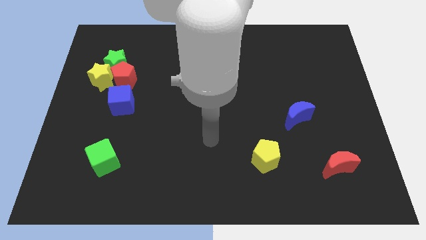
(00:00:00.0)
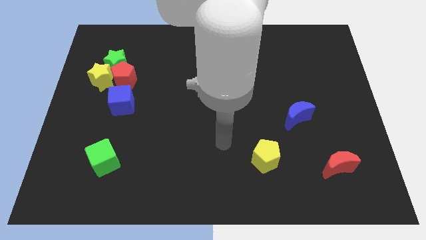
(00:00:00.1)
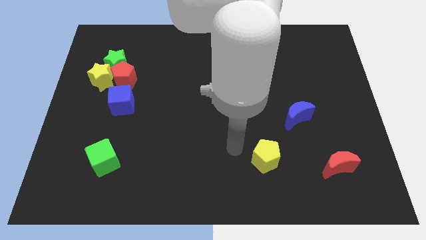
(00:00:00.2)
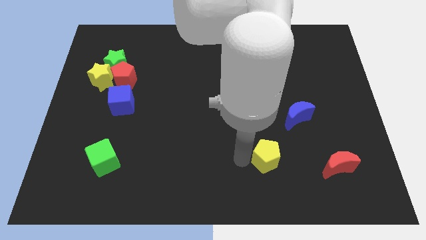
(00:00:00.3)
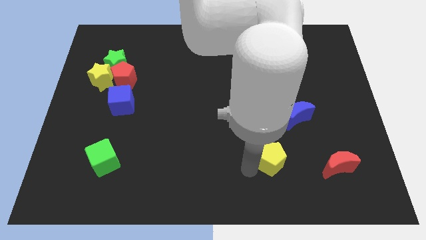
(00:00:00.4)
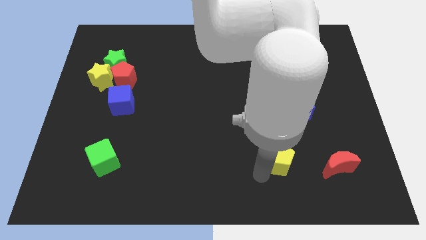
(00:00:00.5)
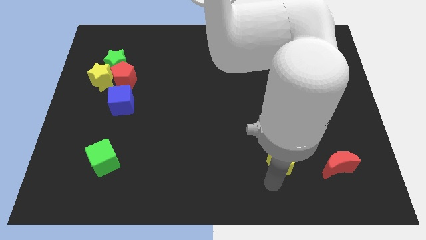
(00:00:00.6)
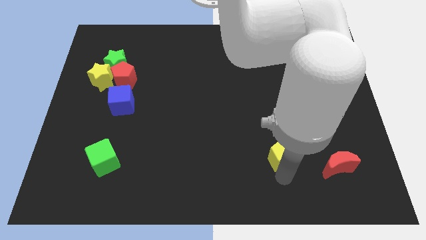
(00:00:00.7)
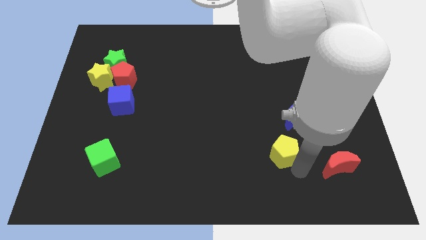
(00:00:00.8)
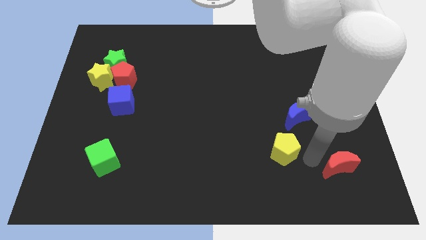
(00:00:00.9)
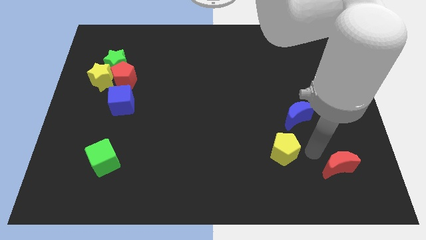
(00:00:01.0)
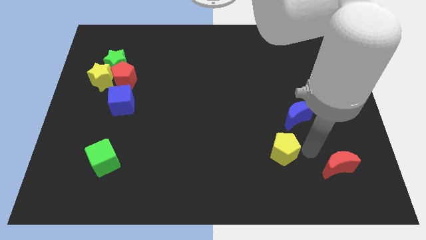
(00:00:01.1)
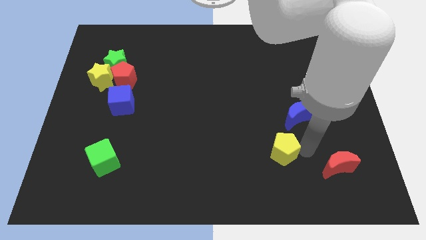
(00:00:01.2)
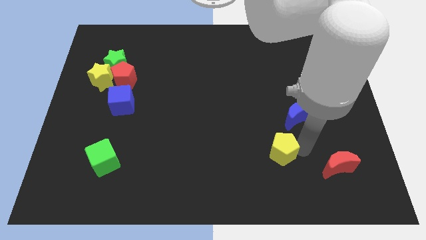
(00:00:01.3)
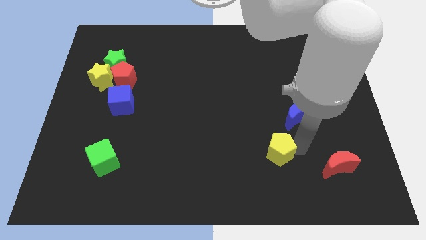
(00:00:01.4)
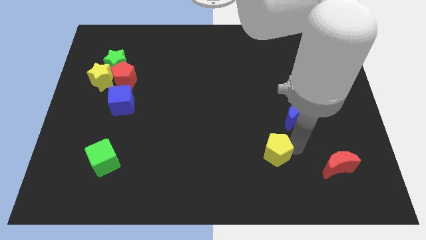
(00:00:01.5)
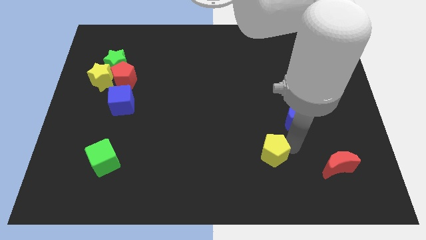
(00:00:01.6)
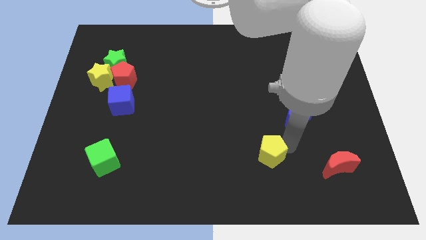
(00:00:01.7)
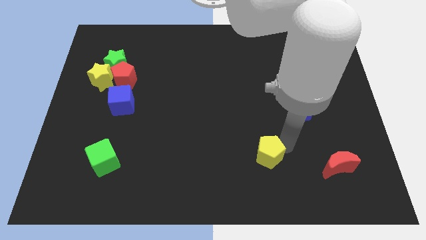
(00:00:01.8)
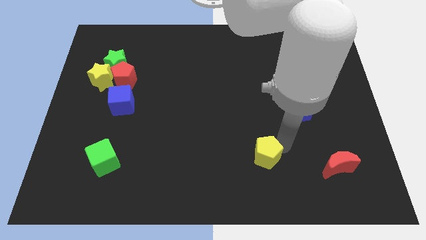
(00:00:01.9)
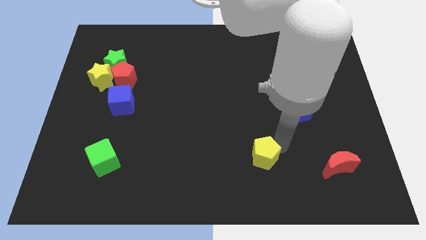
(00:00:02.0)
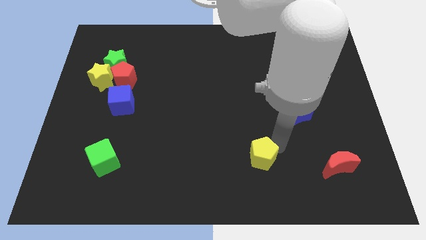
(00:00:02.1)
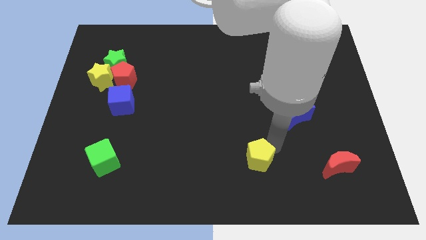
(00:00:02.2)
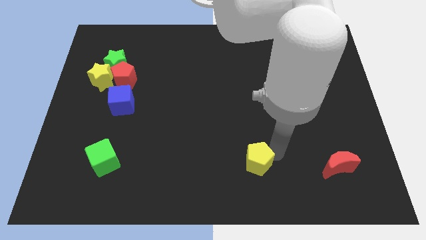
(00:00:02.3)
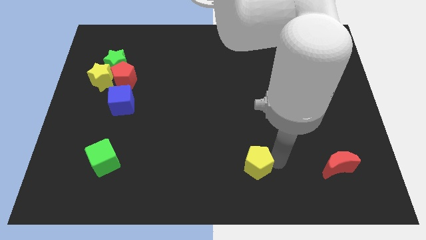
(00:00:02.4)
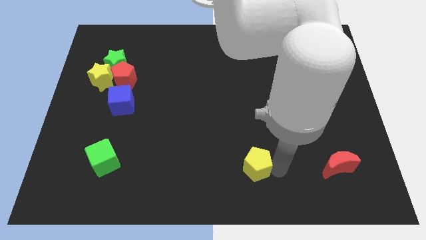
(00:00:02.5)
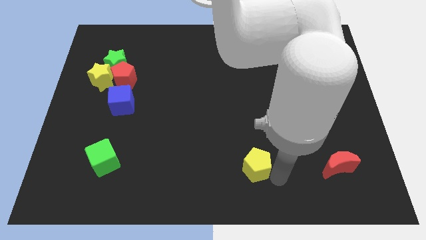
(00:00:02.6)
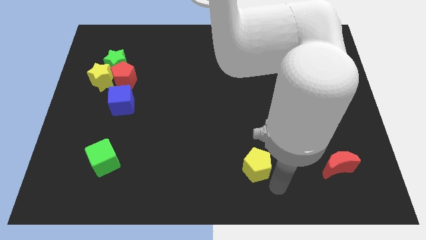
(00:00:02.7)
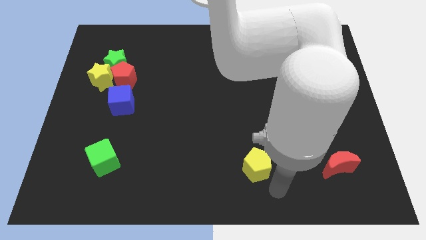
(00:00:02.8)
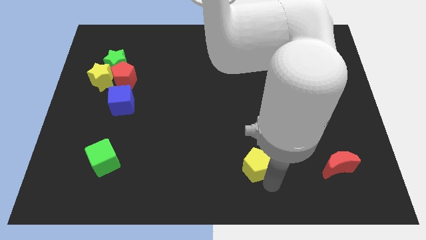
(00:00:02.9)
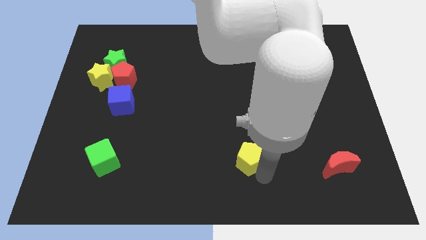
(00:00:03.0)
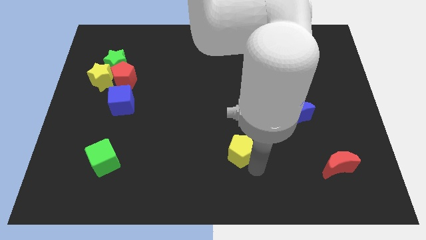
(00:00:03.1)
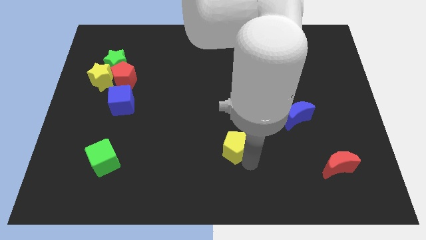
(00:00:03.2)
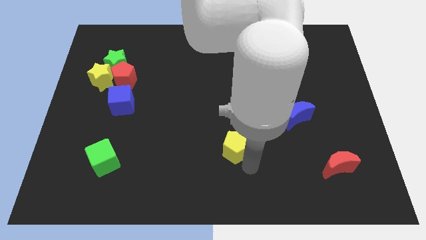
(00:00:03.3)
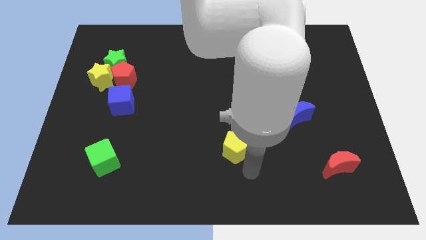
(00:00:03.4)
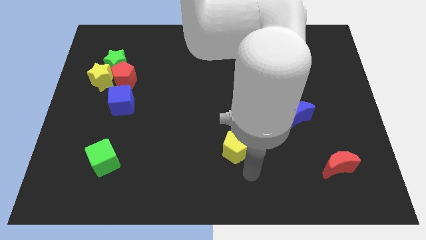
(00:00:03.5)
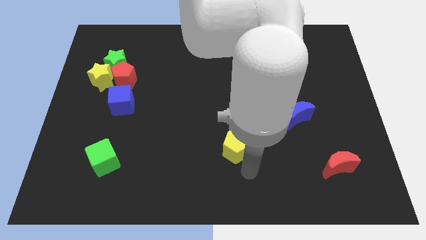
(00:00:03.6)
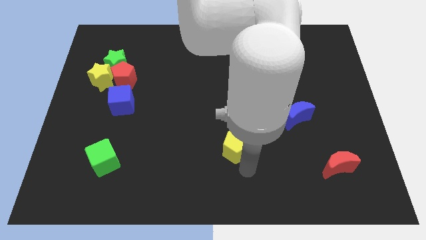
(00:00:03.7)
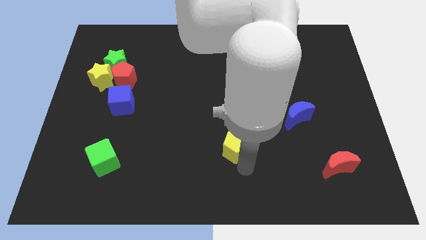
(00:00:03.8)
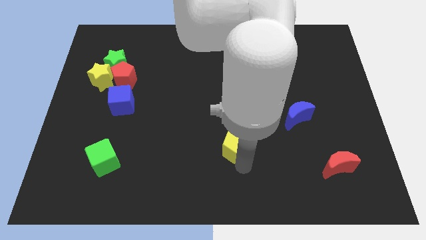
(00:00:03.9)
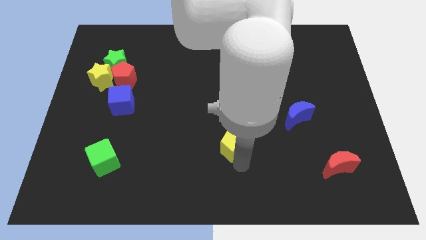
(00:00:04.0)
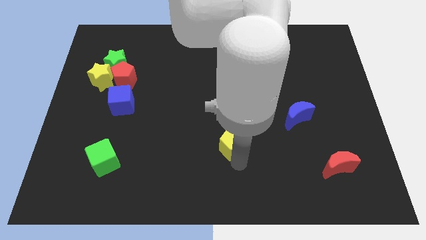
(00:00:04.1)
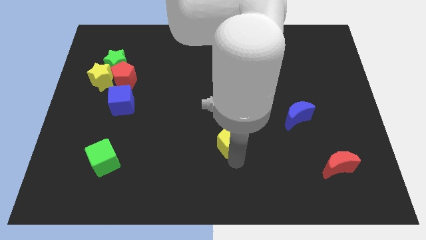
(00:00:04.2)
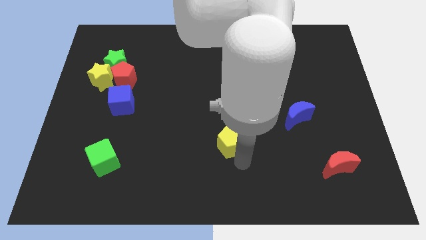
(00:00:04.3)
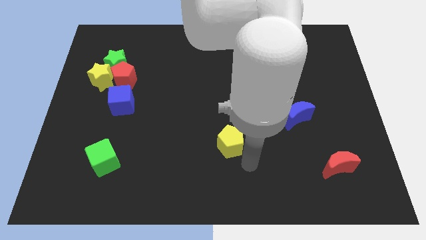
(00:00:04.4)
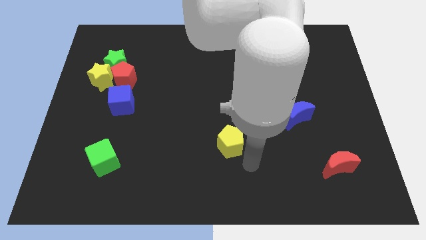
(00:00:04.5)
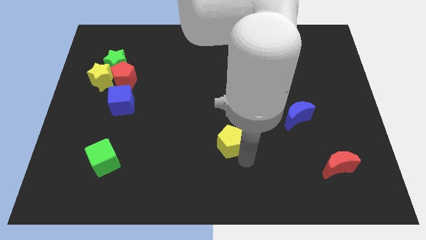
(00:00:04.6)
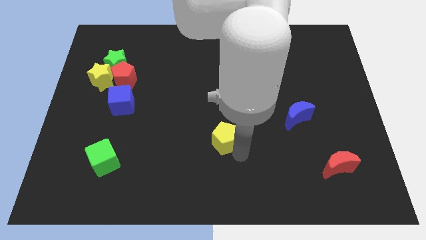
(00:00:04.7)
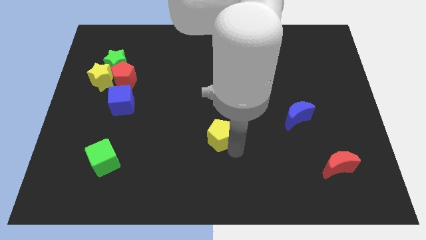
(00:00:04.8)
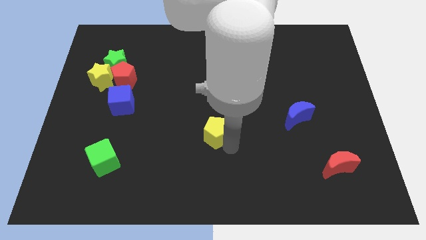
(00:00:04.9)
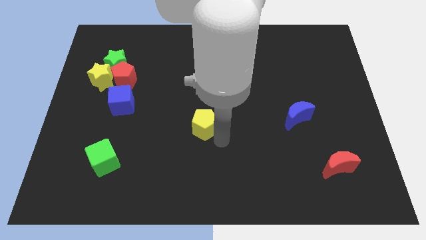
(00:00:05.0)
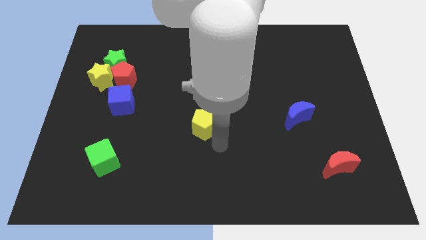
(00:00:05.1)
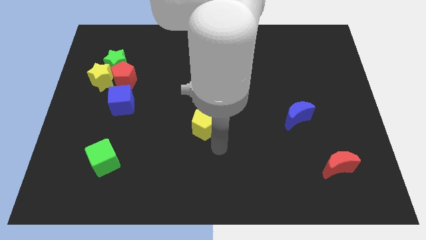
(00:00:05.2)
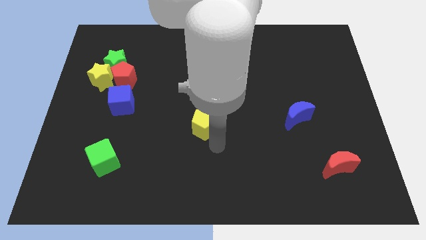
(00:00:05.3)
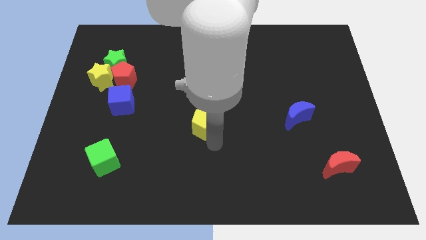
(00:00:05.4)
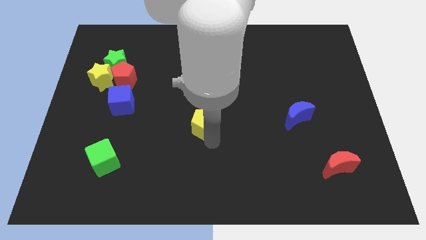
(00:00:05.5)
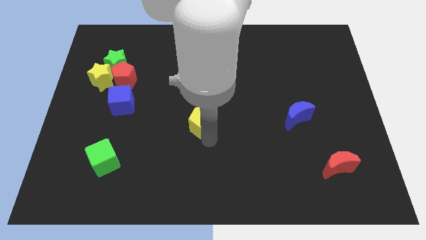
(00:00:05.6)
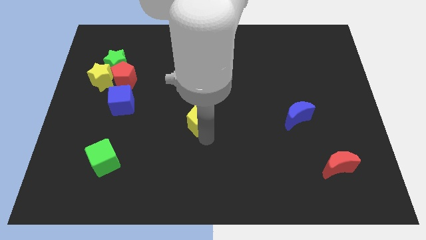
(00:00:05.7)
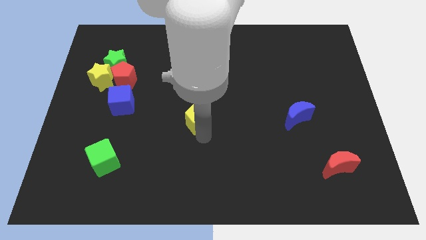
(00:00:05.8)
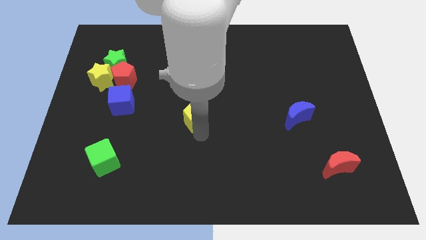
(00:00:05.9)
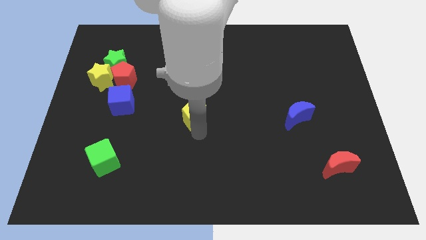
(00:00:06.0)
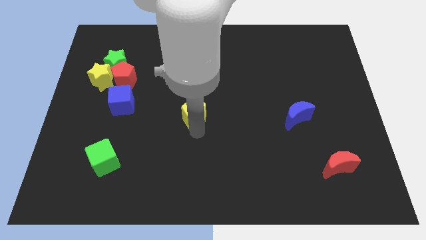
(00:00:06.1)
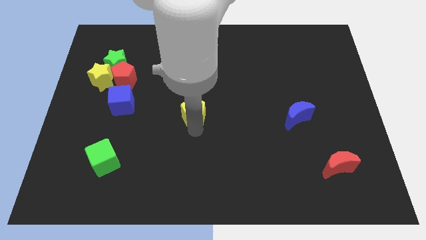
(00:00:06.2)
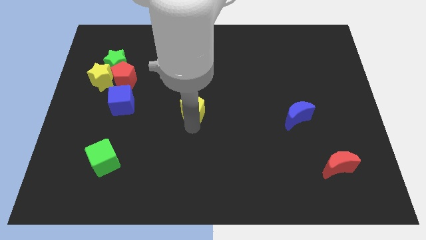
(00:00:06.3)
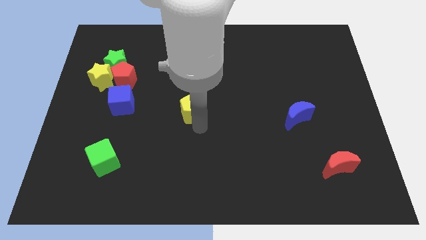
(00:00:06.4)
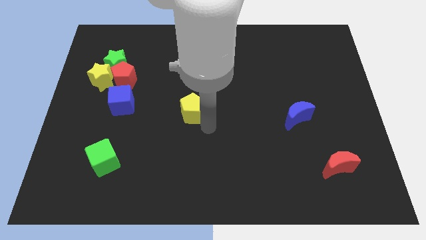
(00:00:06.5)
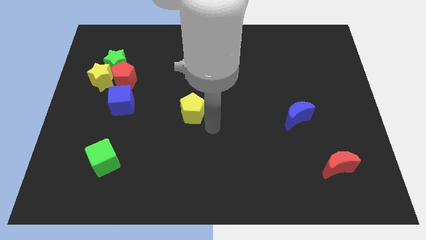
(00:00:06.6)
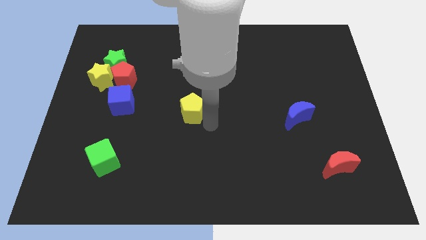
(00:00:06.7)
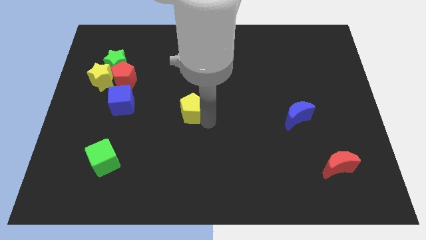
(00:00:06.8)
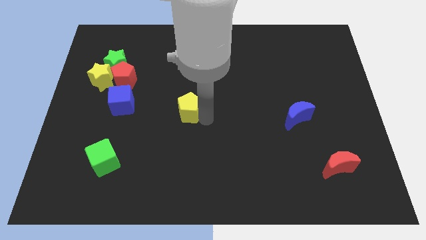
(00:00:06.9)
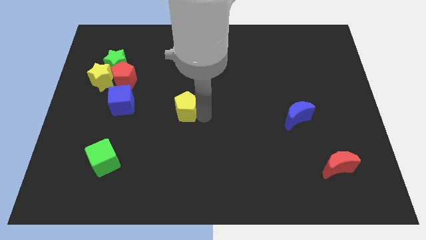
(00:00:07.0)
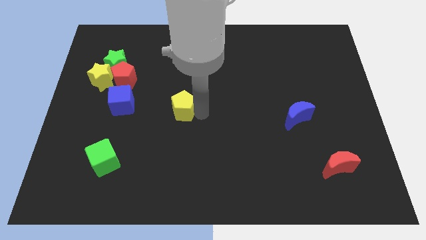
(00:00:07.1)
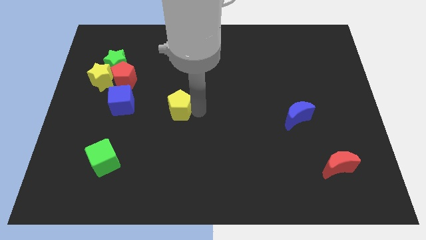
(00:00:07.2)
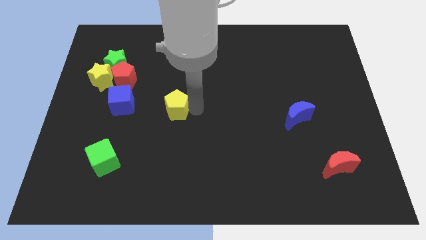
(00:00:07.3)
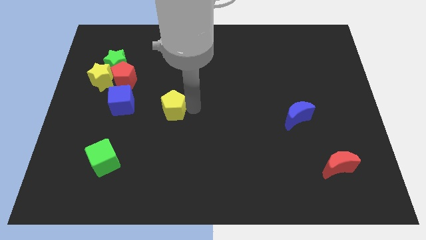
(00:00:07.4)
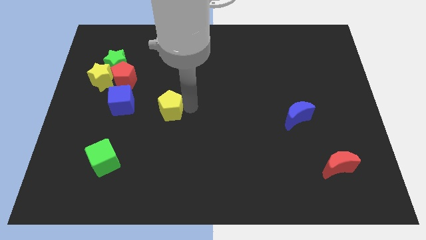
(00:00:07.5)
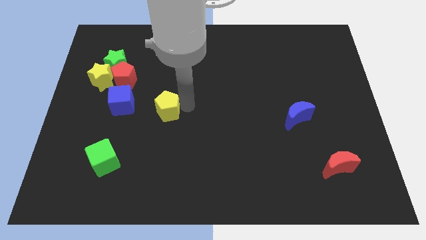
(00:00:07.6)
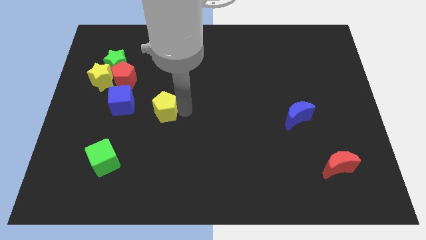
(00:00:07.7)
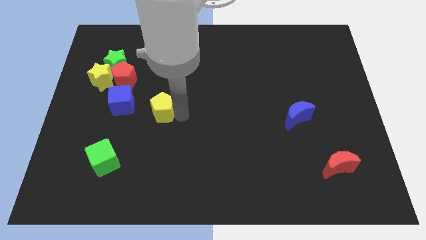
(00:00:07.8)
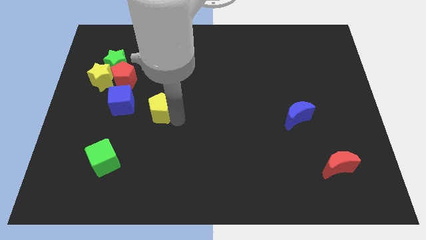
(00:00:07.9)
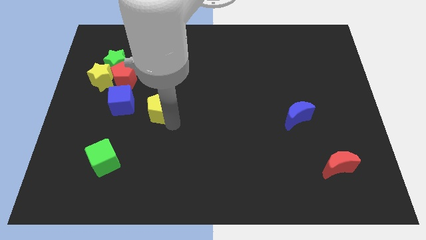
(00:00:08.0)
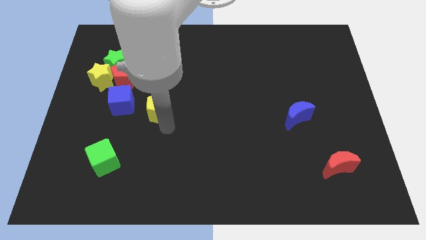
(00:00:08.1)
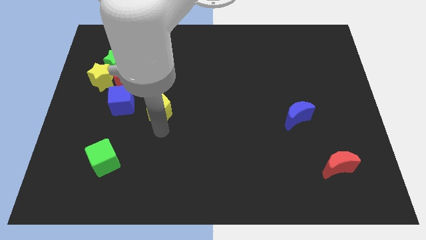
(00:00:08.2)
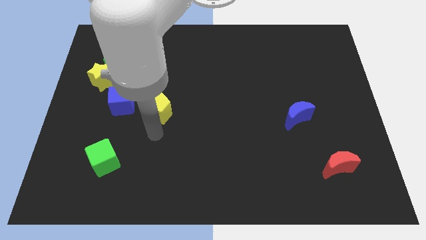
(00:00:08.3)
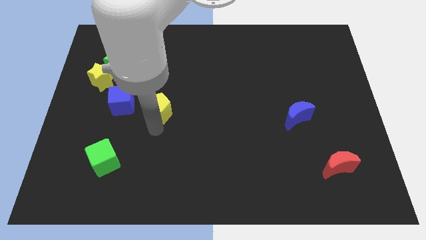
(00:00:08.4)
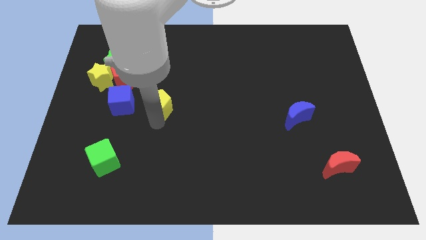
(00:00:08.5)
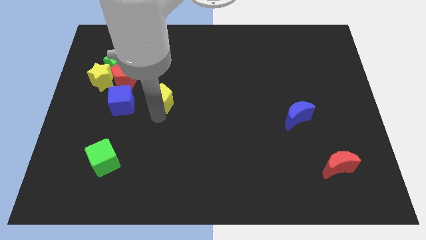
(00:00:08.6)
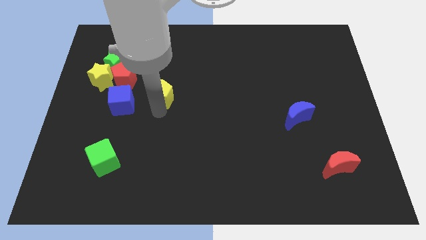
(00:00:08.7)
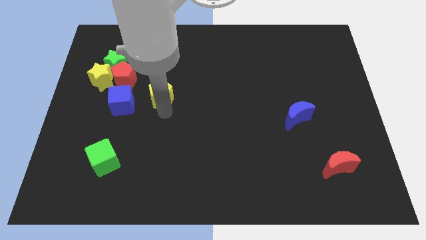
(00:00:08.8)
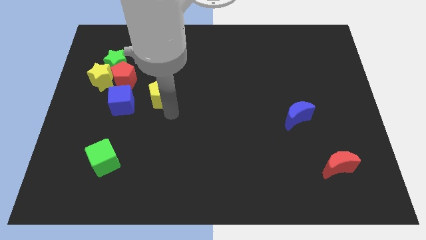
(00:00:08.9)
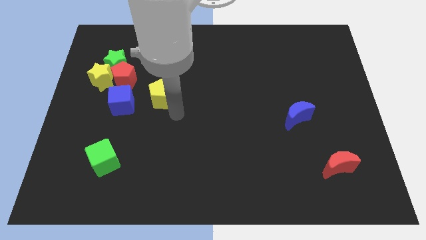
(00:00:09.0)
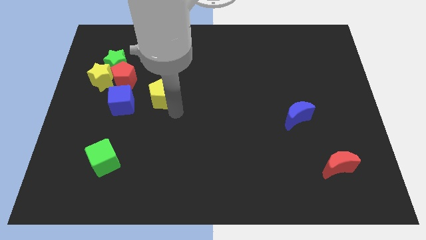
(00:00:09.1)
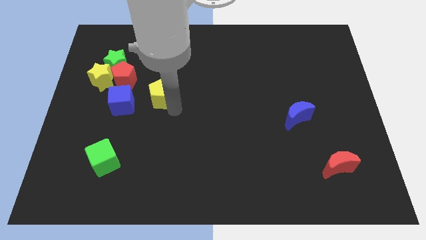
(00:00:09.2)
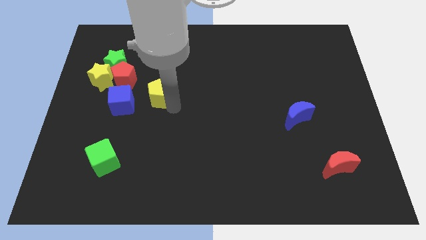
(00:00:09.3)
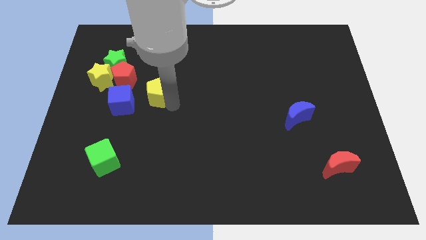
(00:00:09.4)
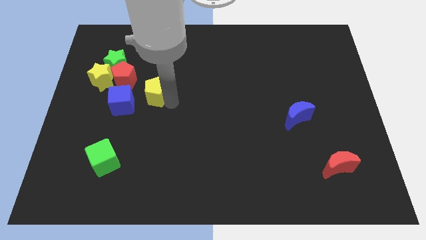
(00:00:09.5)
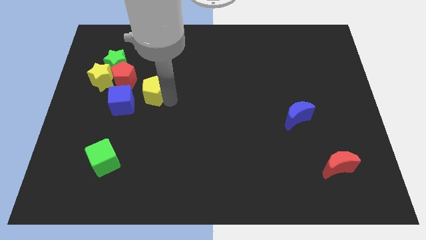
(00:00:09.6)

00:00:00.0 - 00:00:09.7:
slide the yellow pentagon right of the yellow star
